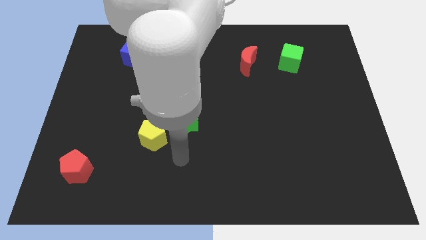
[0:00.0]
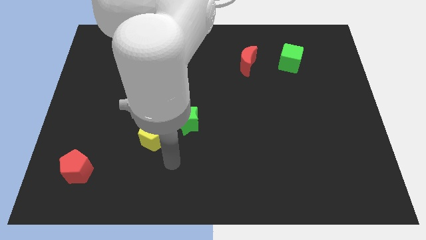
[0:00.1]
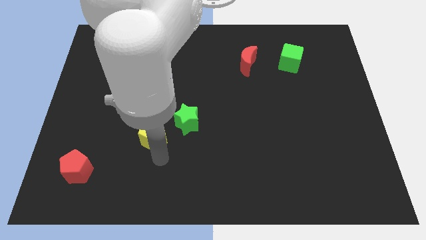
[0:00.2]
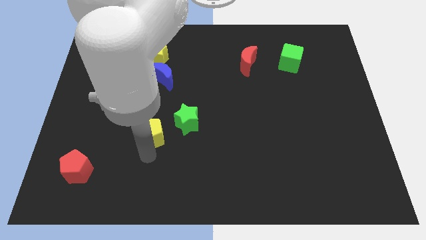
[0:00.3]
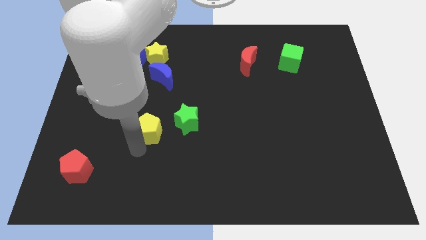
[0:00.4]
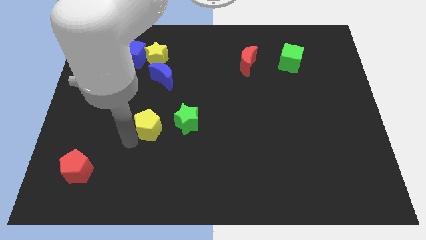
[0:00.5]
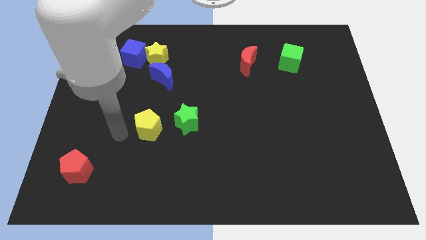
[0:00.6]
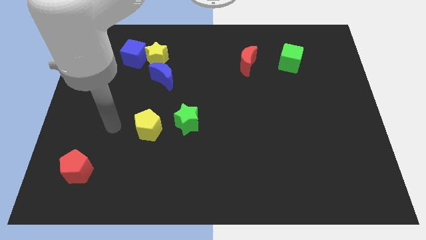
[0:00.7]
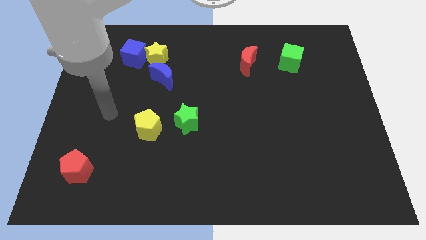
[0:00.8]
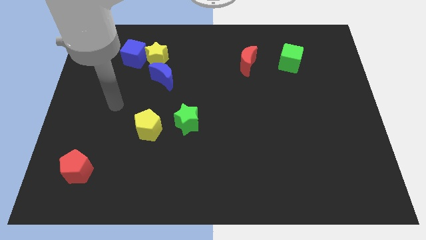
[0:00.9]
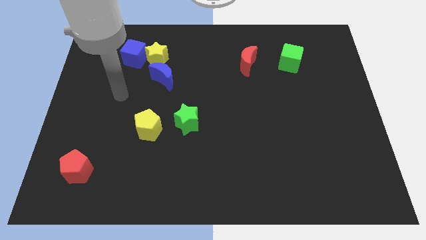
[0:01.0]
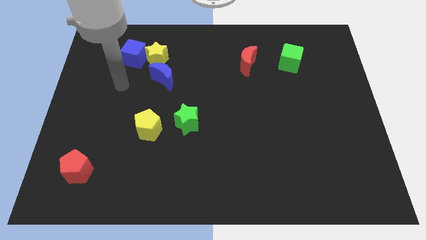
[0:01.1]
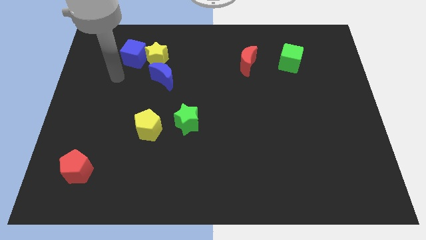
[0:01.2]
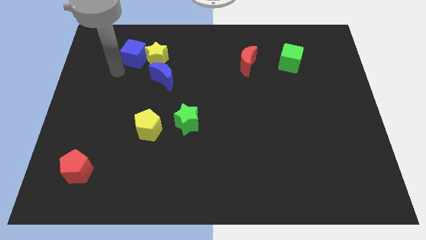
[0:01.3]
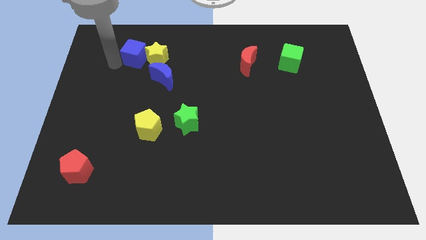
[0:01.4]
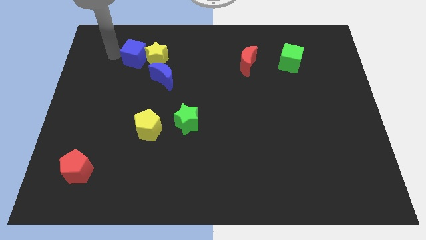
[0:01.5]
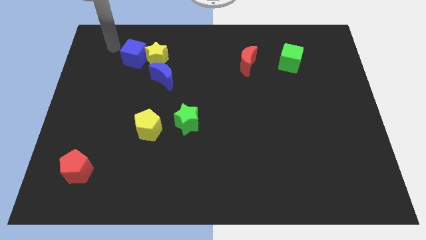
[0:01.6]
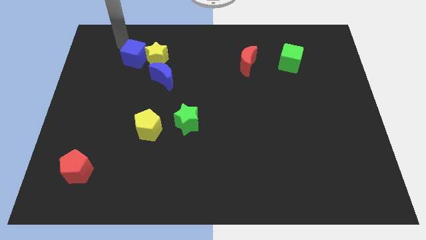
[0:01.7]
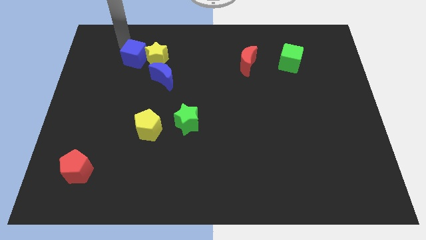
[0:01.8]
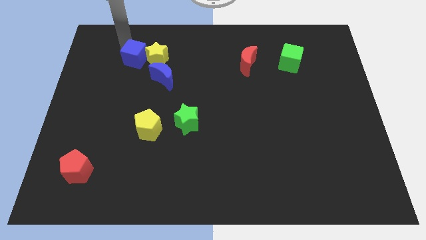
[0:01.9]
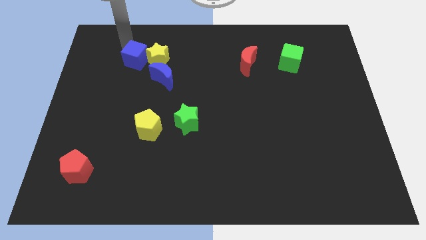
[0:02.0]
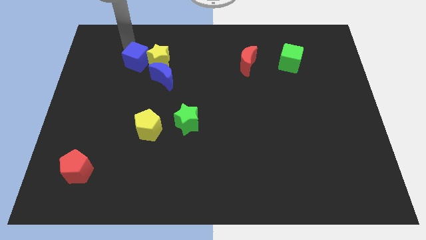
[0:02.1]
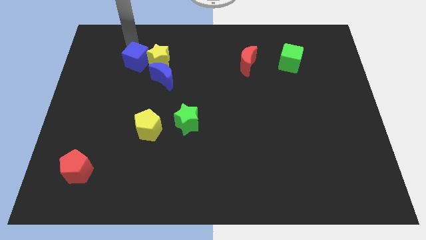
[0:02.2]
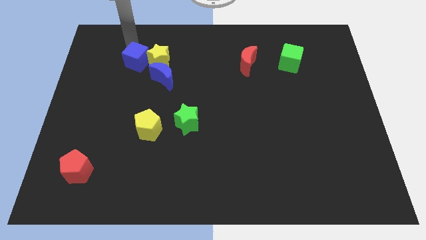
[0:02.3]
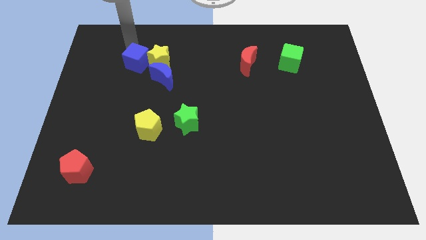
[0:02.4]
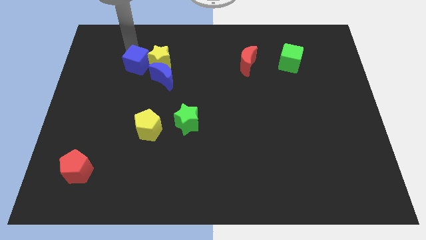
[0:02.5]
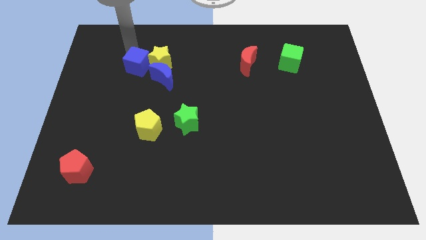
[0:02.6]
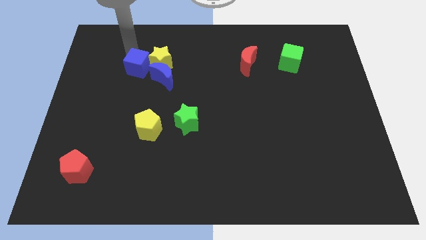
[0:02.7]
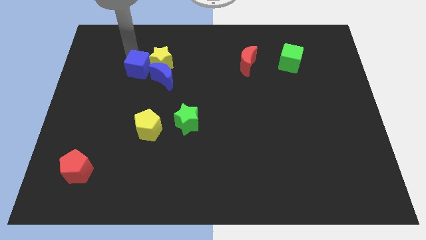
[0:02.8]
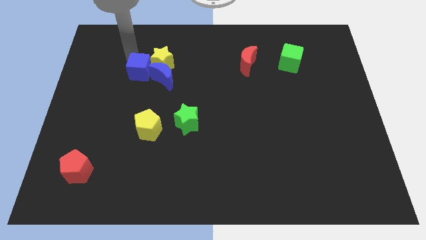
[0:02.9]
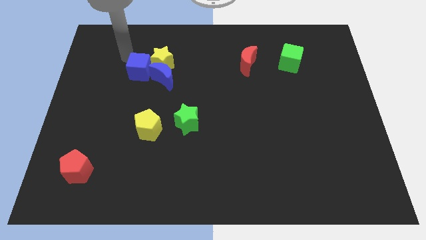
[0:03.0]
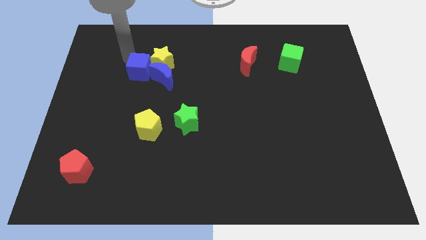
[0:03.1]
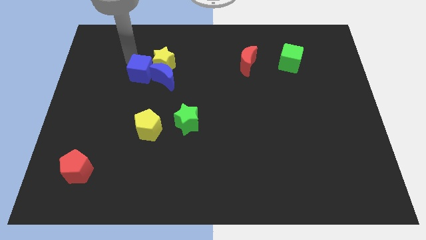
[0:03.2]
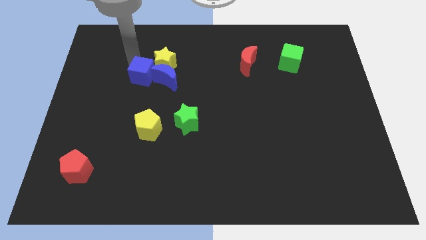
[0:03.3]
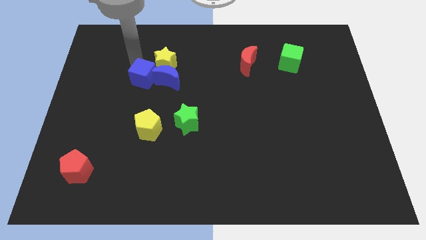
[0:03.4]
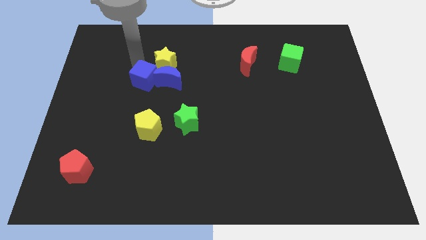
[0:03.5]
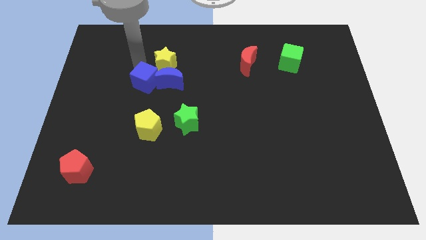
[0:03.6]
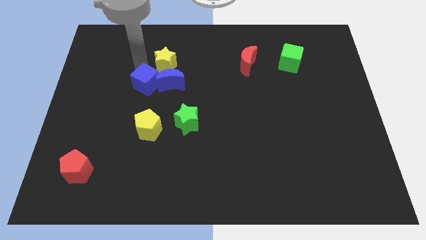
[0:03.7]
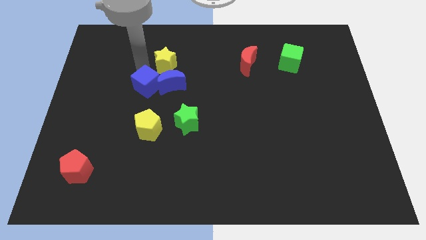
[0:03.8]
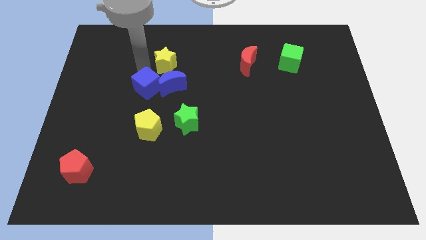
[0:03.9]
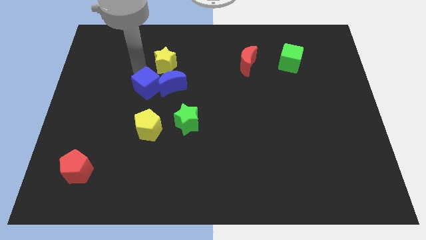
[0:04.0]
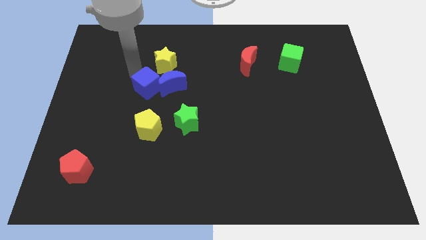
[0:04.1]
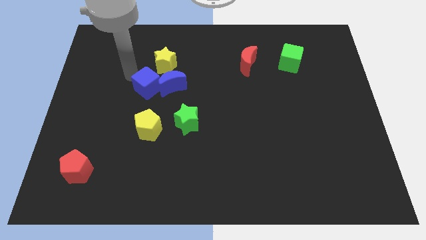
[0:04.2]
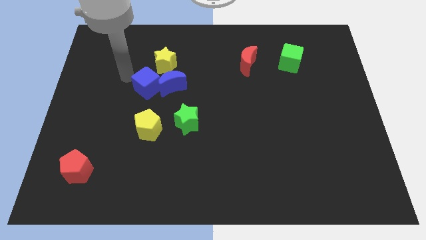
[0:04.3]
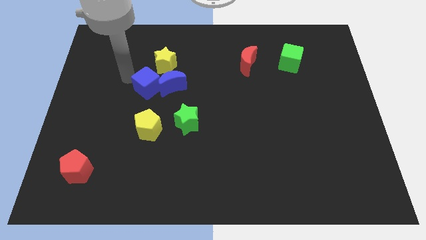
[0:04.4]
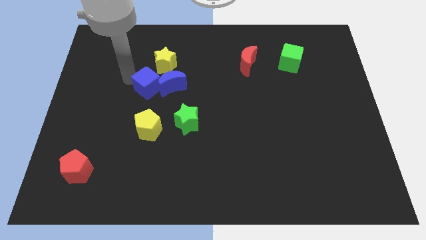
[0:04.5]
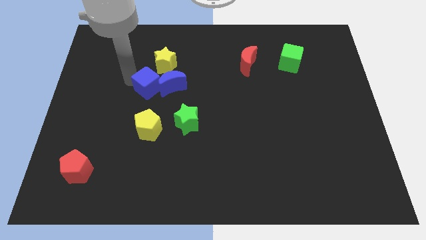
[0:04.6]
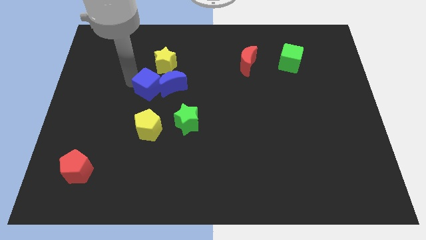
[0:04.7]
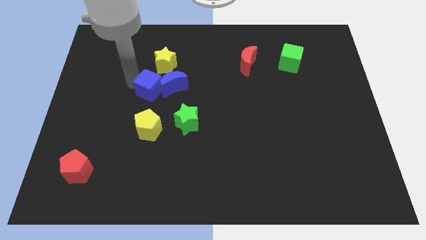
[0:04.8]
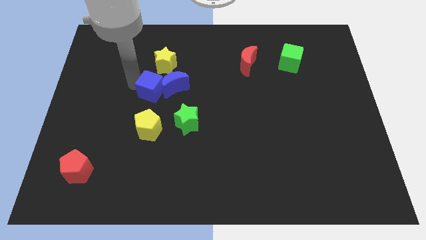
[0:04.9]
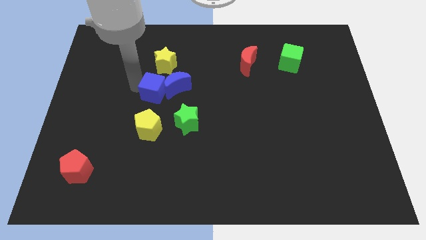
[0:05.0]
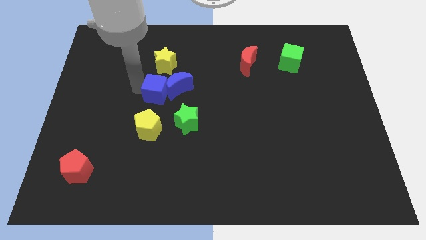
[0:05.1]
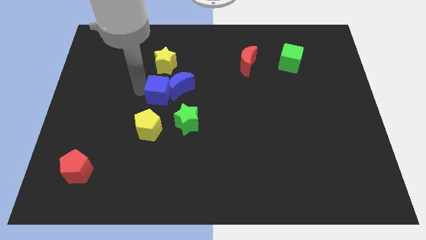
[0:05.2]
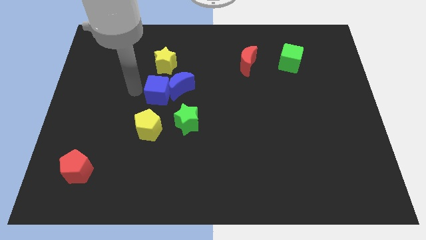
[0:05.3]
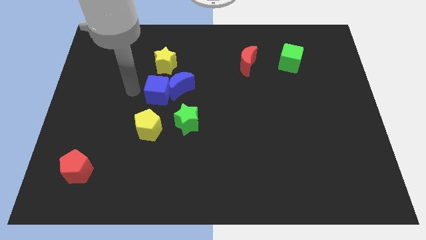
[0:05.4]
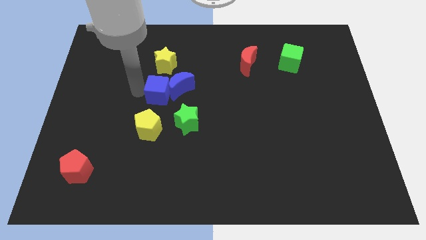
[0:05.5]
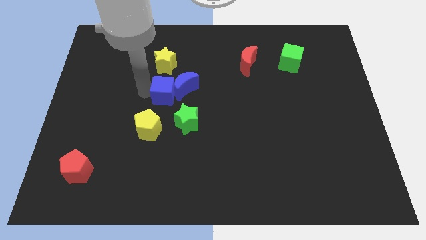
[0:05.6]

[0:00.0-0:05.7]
put the blue cube to the center

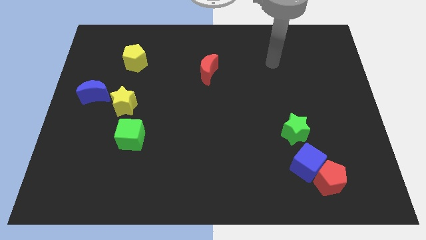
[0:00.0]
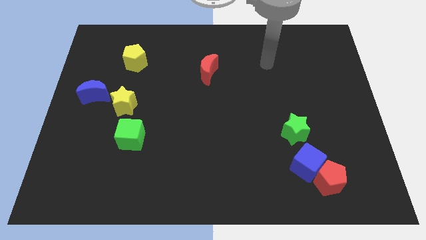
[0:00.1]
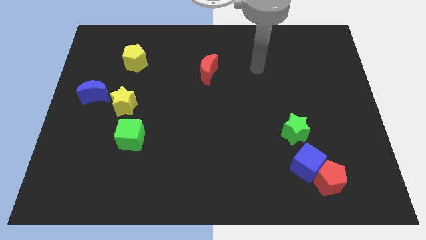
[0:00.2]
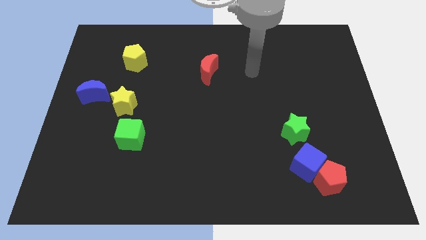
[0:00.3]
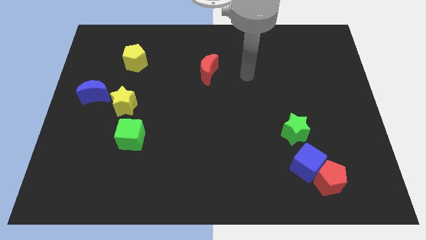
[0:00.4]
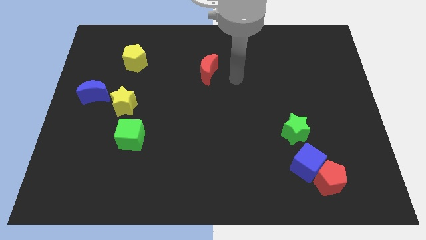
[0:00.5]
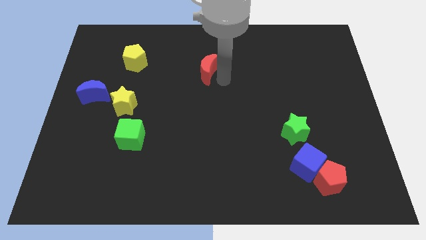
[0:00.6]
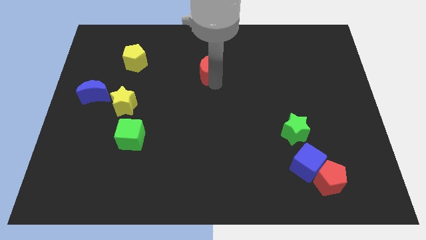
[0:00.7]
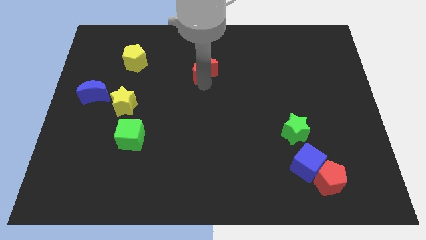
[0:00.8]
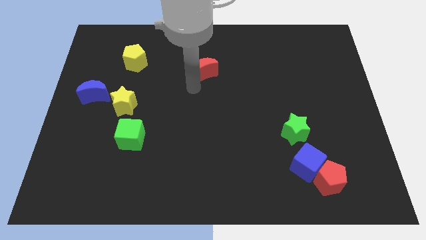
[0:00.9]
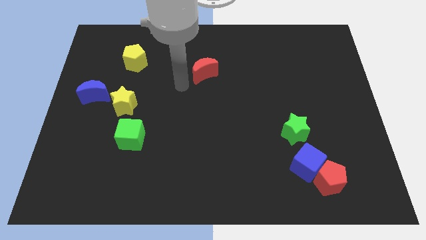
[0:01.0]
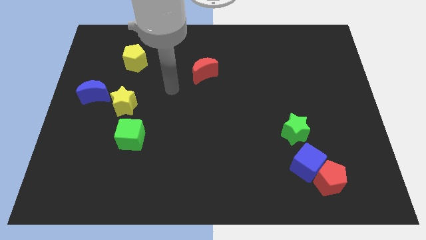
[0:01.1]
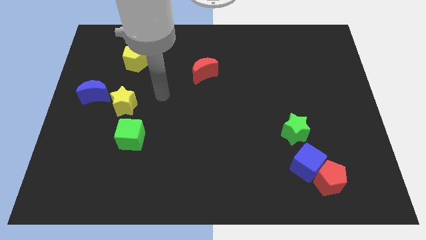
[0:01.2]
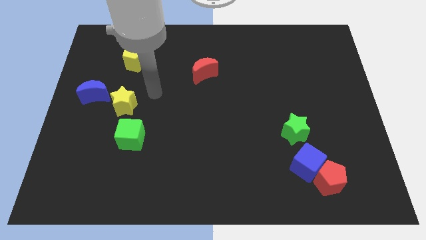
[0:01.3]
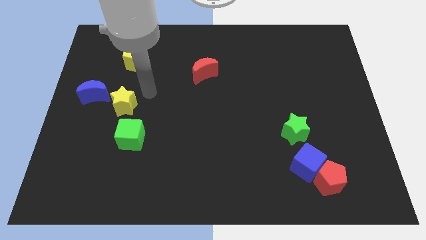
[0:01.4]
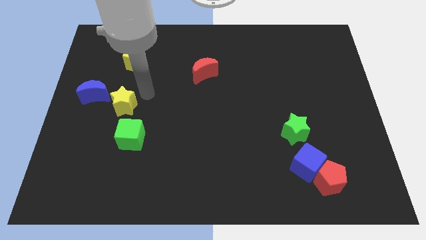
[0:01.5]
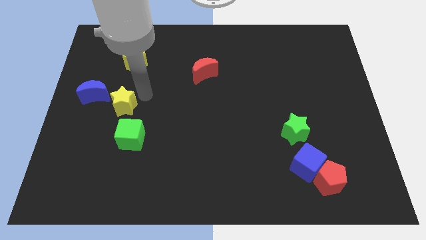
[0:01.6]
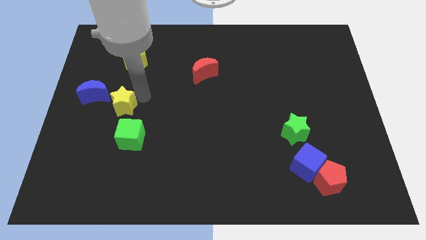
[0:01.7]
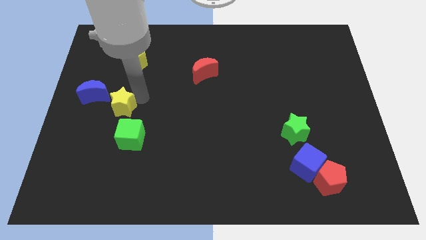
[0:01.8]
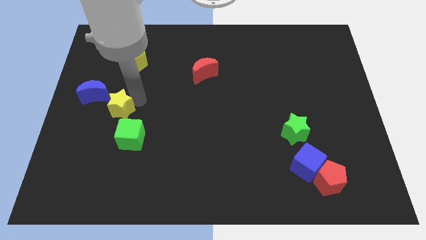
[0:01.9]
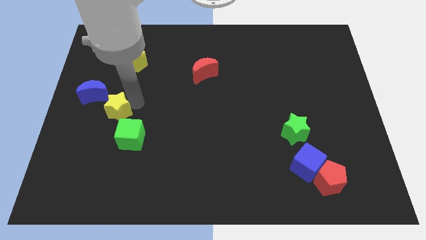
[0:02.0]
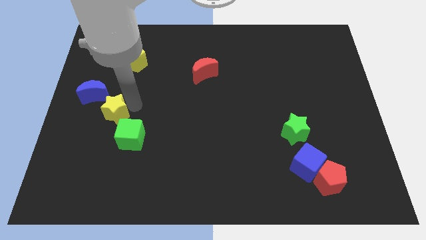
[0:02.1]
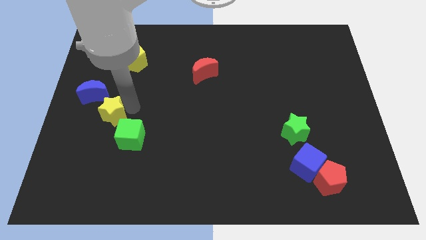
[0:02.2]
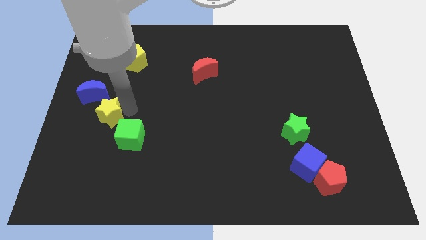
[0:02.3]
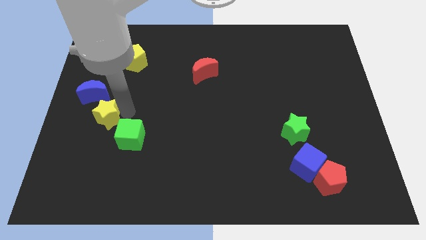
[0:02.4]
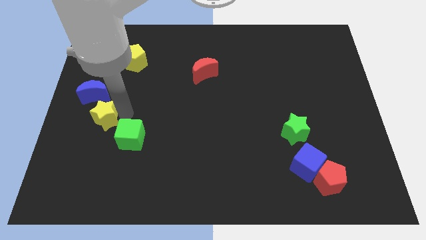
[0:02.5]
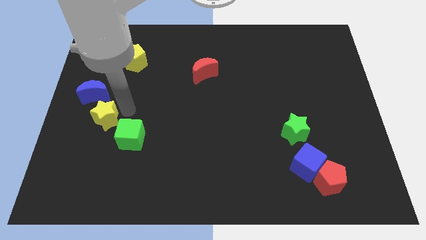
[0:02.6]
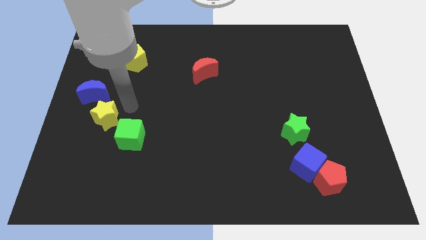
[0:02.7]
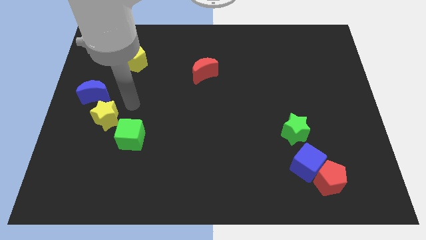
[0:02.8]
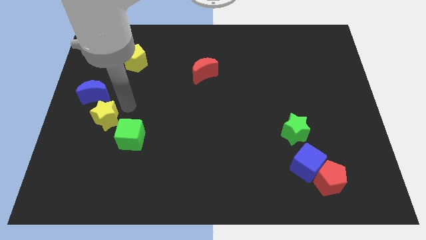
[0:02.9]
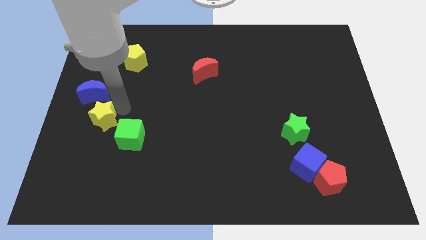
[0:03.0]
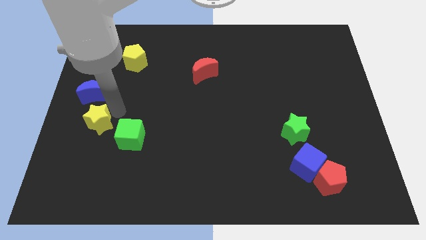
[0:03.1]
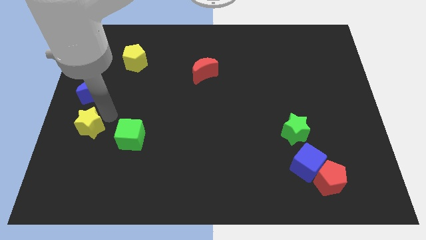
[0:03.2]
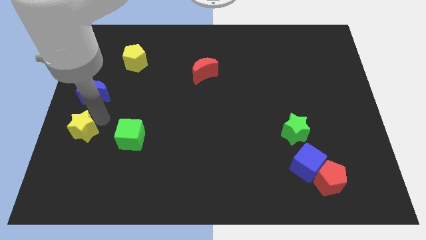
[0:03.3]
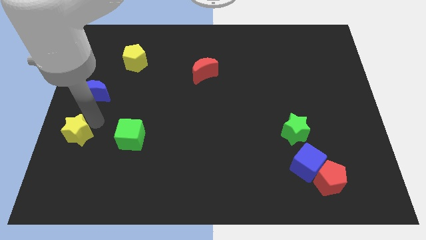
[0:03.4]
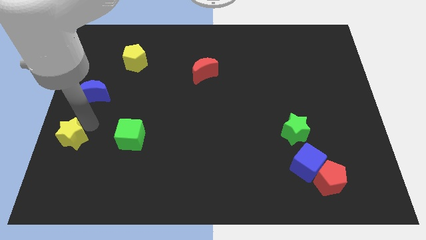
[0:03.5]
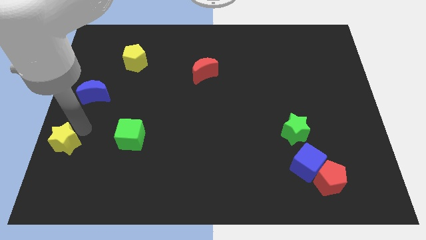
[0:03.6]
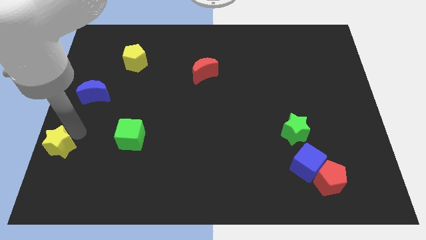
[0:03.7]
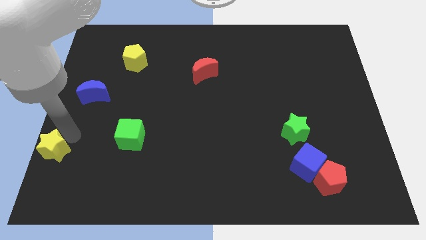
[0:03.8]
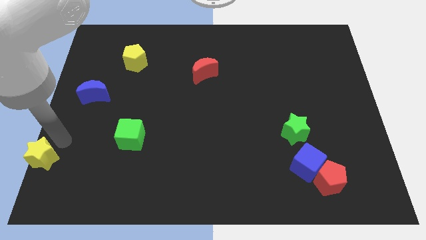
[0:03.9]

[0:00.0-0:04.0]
move the yellow star to the bottom left of the board
